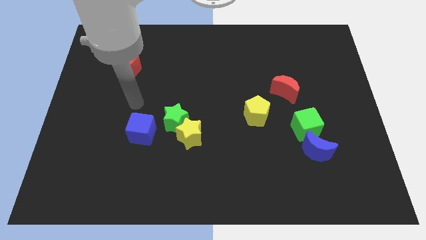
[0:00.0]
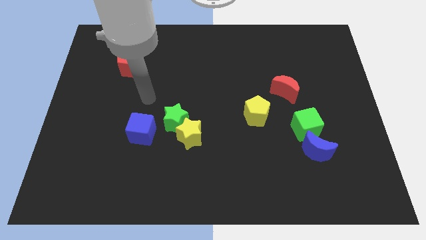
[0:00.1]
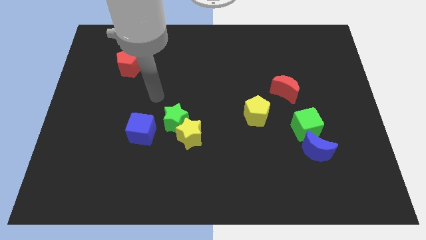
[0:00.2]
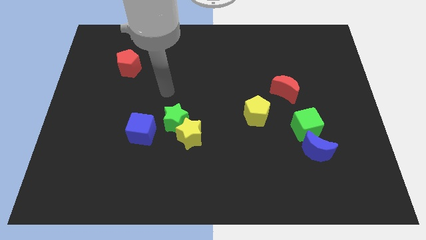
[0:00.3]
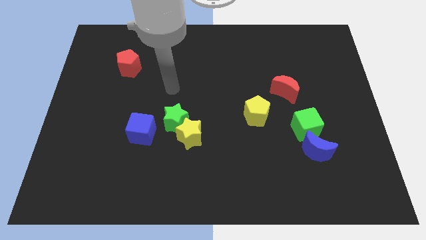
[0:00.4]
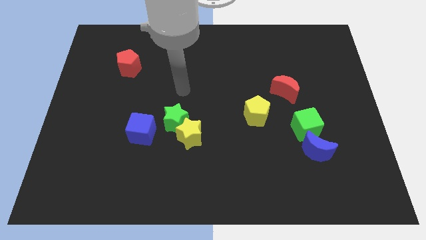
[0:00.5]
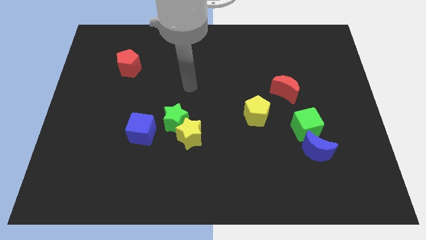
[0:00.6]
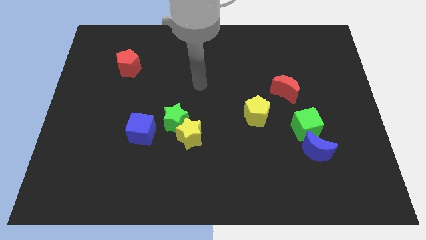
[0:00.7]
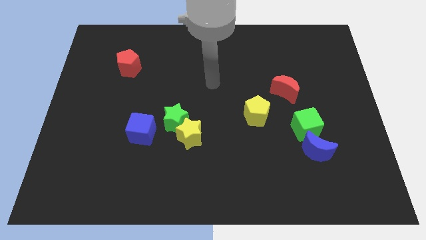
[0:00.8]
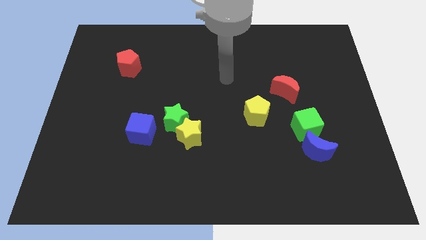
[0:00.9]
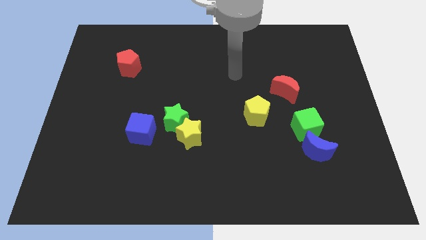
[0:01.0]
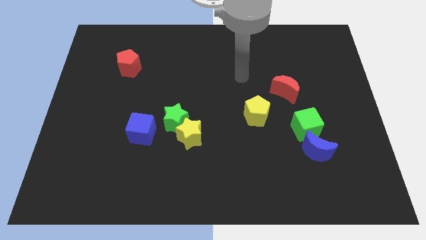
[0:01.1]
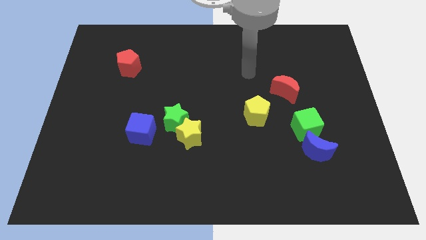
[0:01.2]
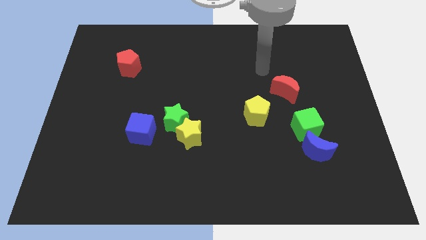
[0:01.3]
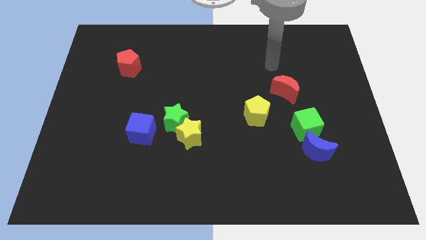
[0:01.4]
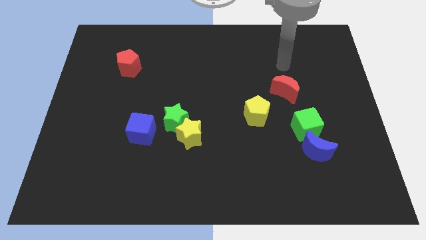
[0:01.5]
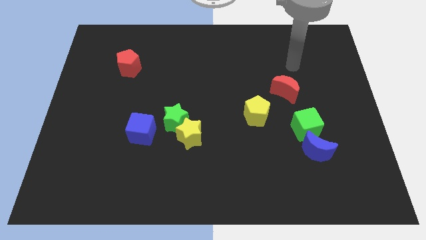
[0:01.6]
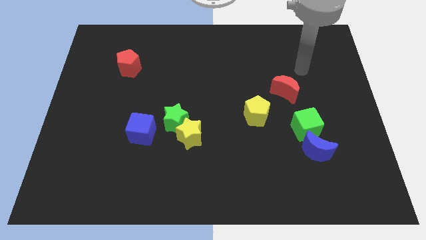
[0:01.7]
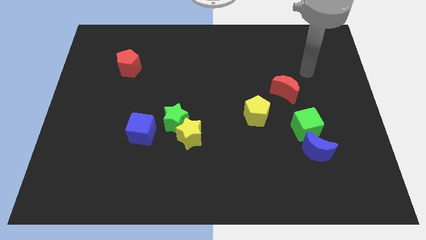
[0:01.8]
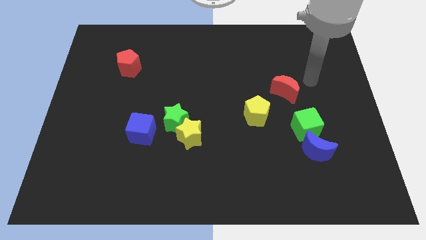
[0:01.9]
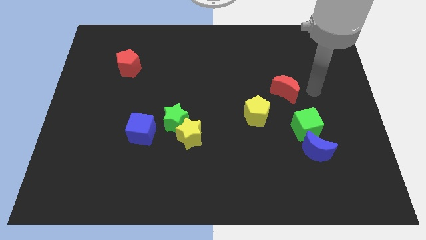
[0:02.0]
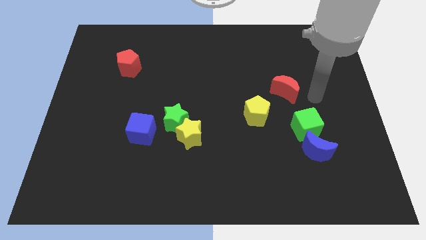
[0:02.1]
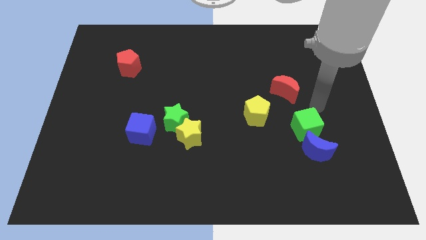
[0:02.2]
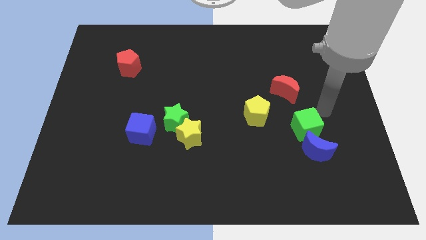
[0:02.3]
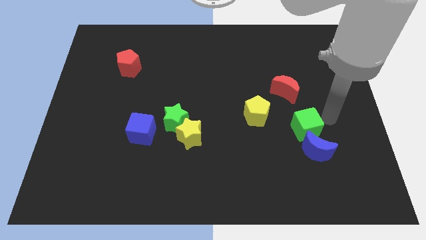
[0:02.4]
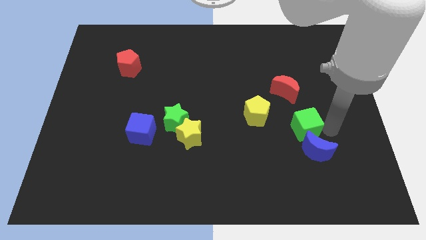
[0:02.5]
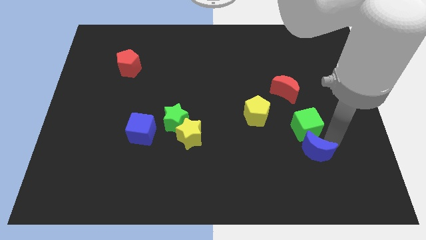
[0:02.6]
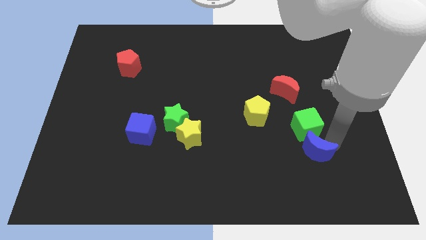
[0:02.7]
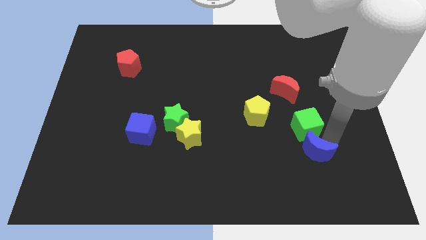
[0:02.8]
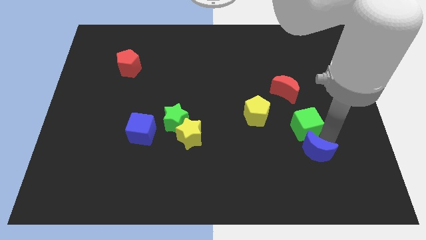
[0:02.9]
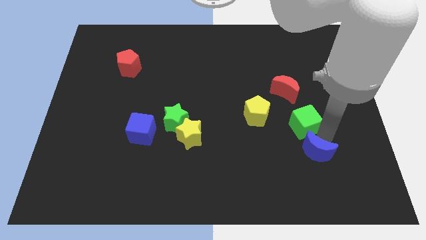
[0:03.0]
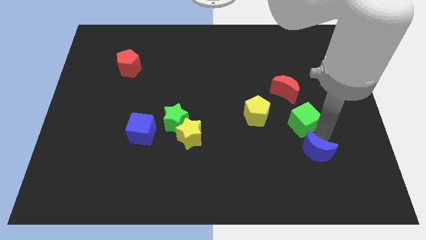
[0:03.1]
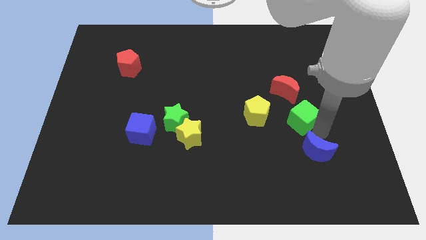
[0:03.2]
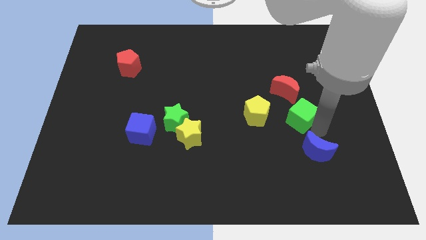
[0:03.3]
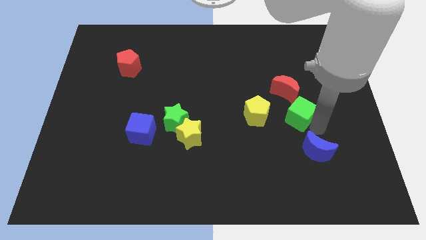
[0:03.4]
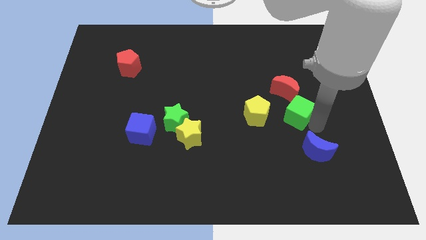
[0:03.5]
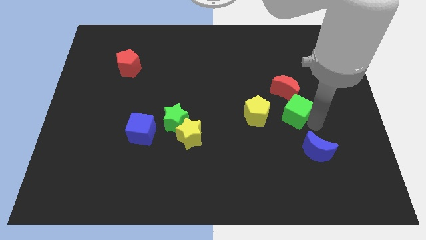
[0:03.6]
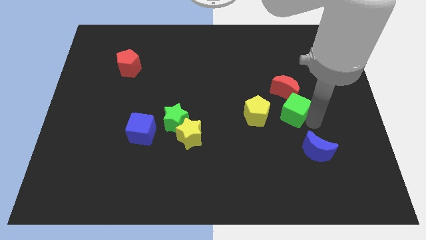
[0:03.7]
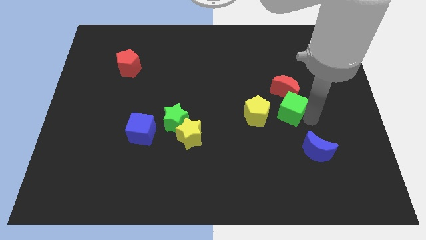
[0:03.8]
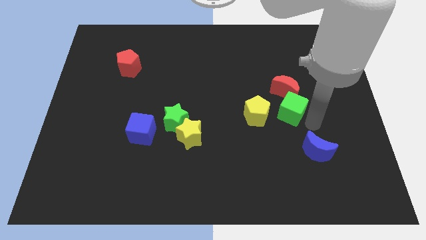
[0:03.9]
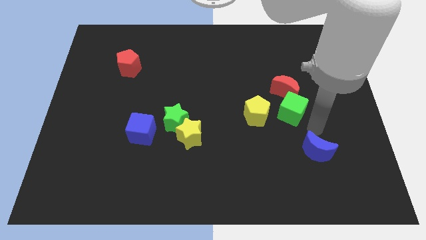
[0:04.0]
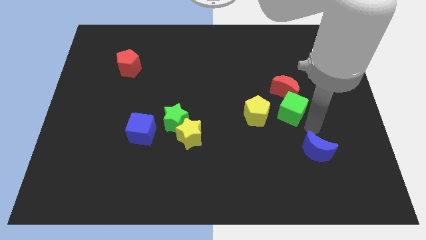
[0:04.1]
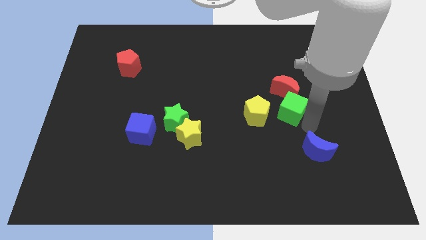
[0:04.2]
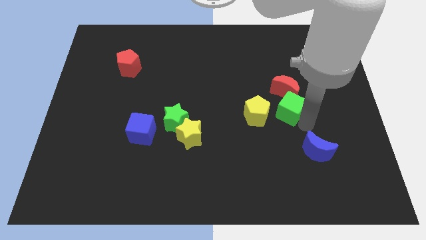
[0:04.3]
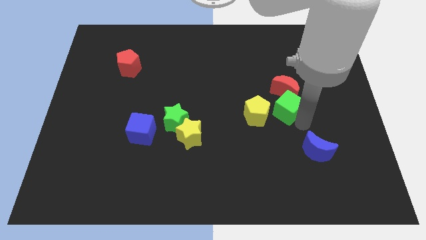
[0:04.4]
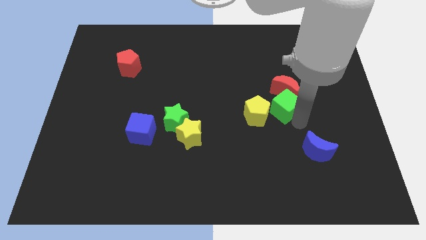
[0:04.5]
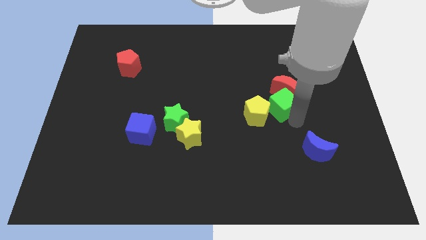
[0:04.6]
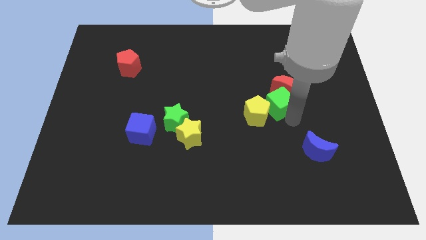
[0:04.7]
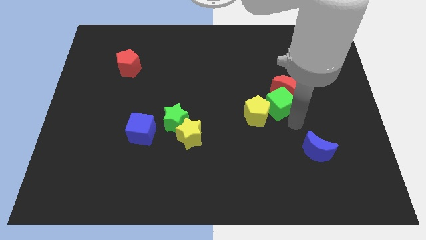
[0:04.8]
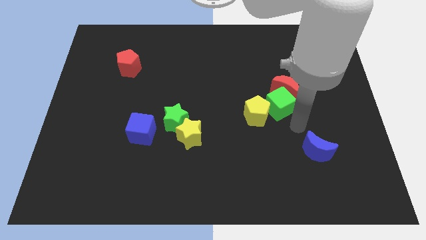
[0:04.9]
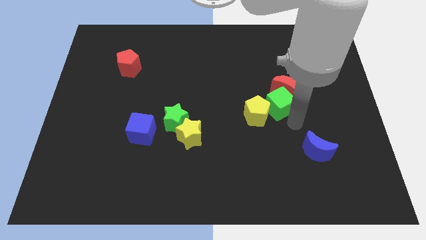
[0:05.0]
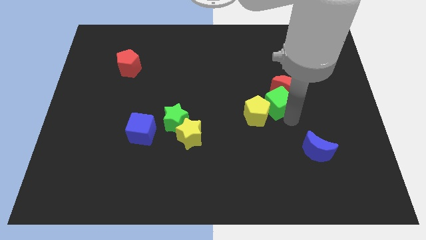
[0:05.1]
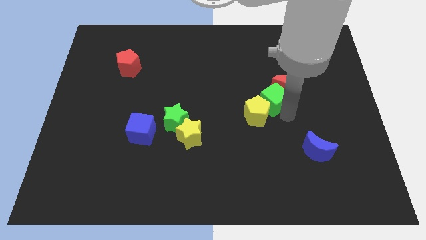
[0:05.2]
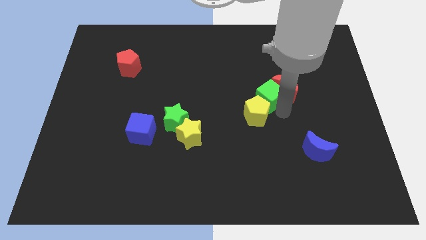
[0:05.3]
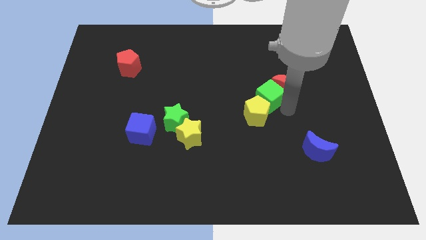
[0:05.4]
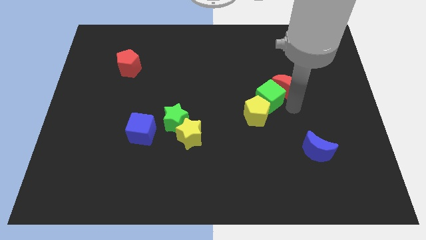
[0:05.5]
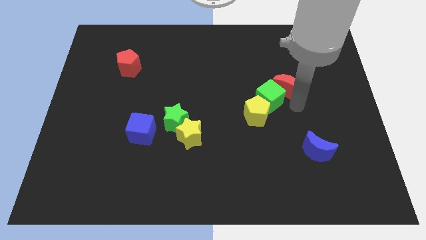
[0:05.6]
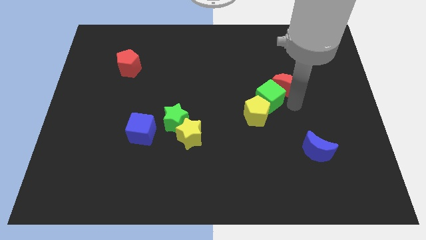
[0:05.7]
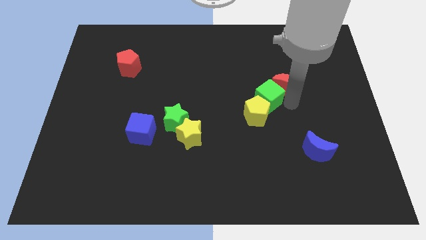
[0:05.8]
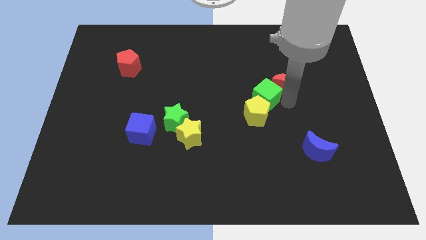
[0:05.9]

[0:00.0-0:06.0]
put the green cube to the center

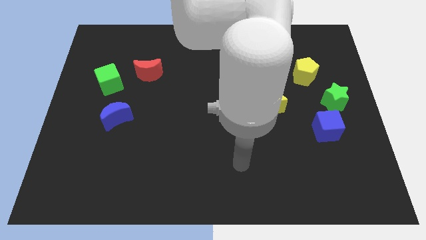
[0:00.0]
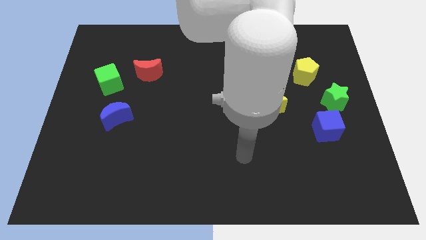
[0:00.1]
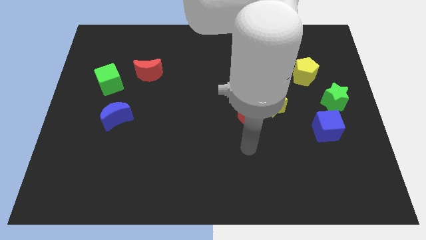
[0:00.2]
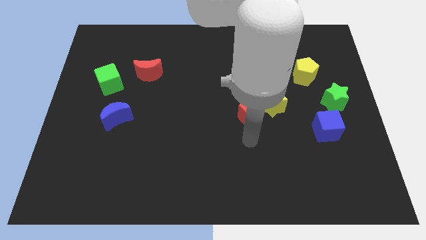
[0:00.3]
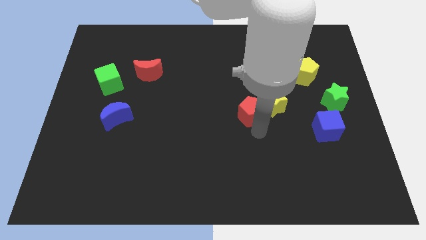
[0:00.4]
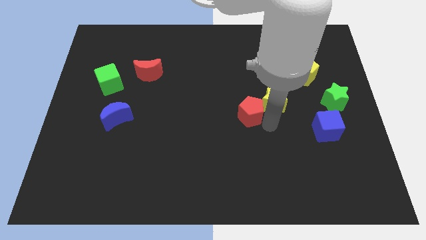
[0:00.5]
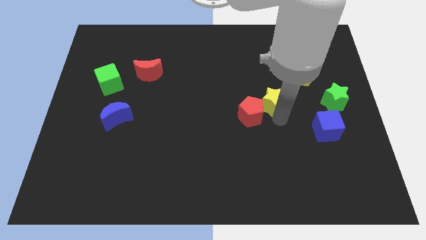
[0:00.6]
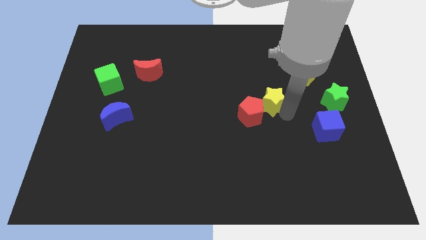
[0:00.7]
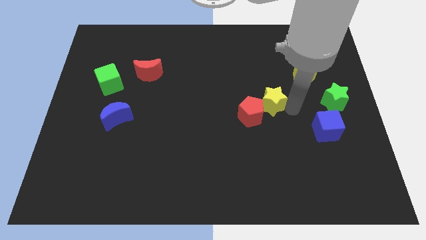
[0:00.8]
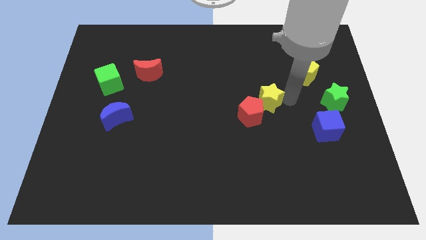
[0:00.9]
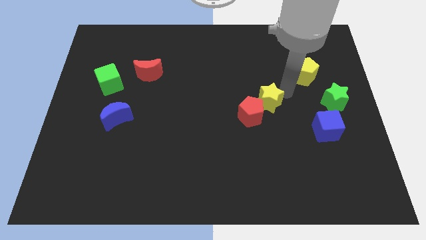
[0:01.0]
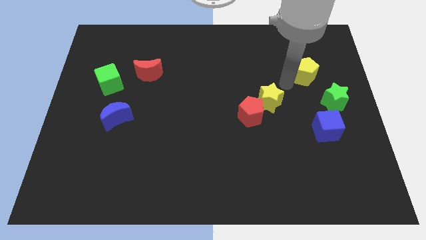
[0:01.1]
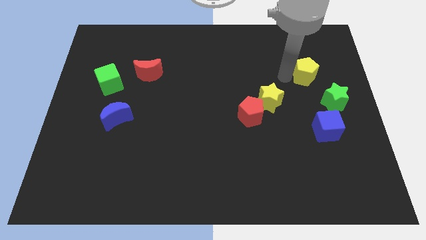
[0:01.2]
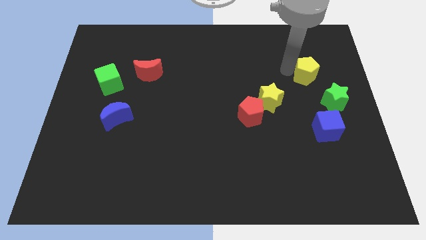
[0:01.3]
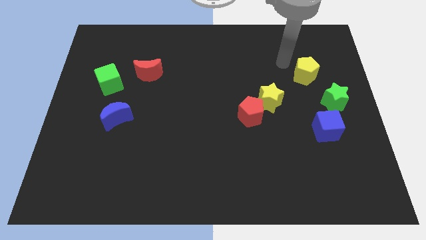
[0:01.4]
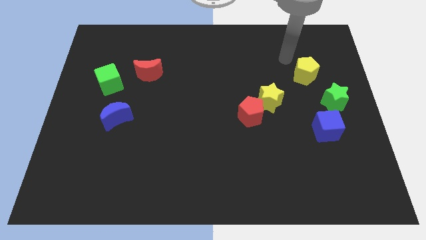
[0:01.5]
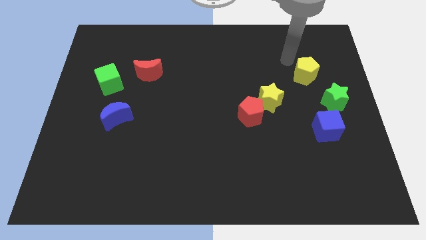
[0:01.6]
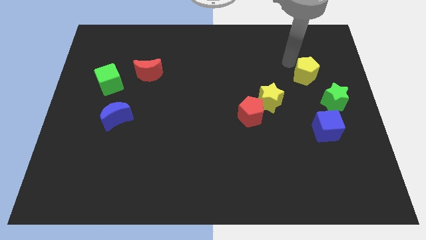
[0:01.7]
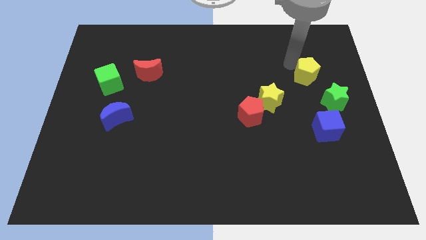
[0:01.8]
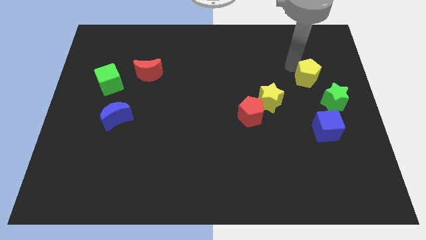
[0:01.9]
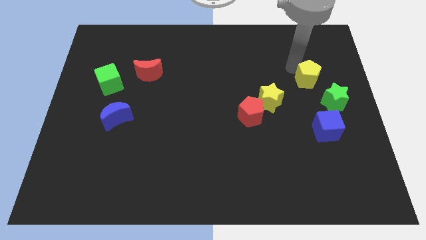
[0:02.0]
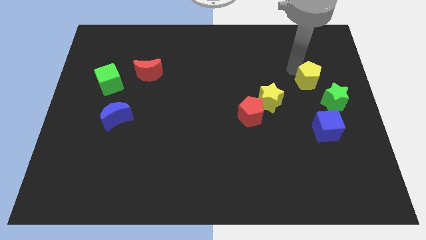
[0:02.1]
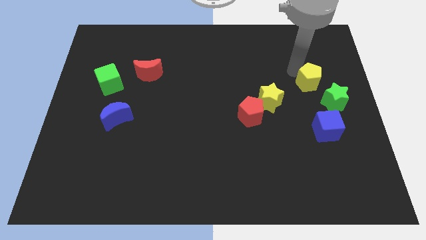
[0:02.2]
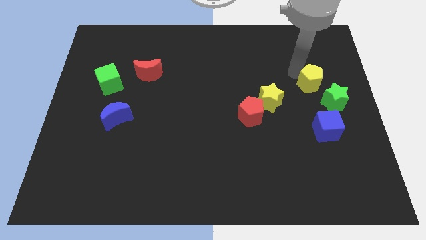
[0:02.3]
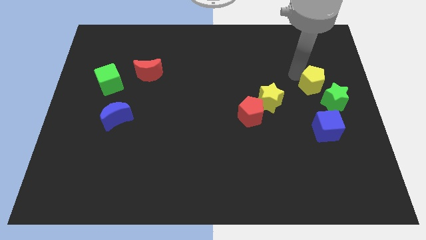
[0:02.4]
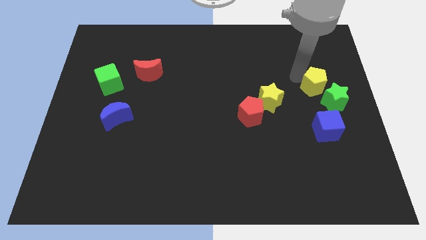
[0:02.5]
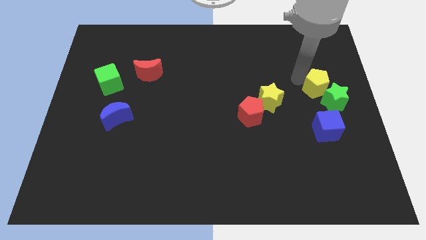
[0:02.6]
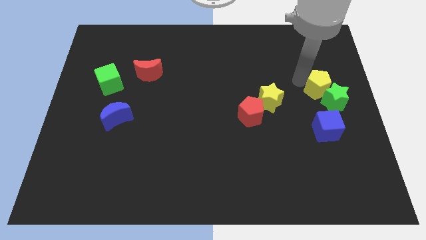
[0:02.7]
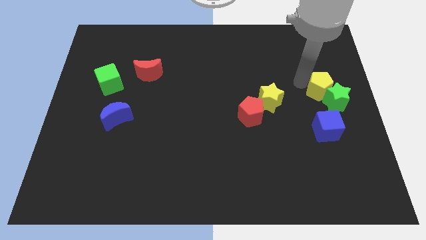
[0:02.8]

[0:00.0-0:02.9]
push the yellow pentagon to the right side
